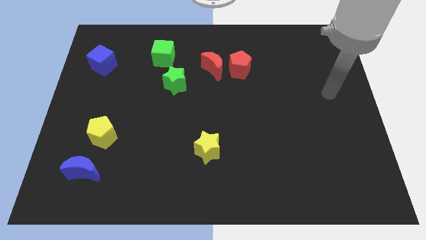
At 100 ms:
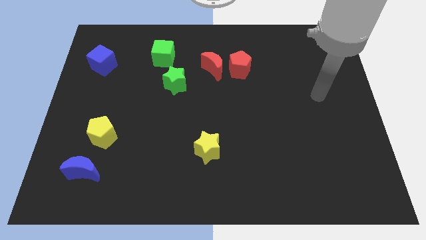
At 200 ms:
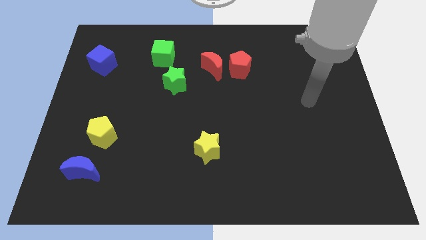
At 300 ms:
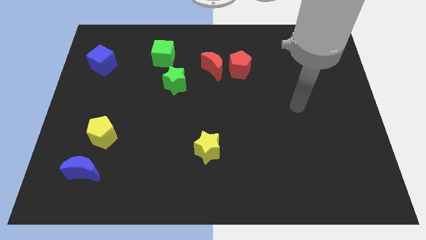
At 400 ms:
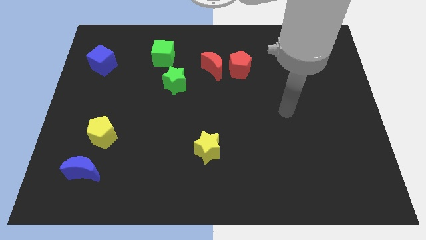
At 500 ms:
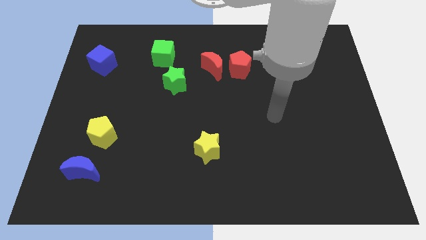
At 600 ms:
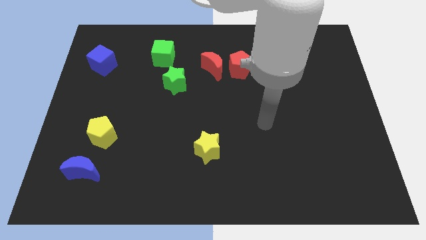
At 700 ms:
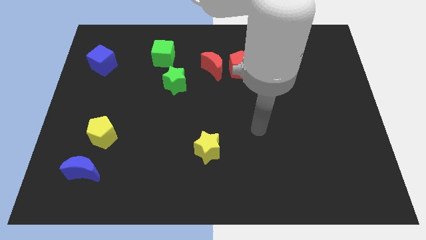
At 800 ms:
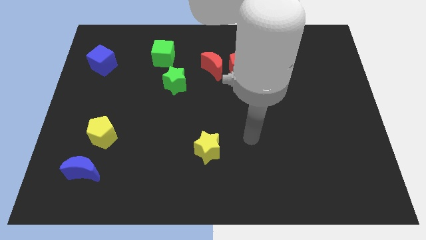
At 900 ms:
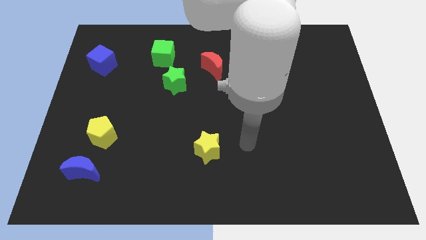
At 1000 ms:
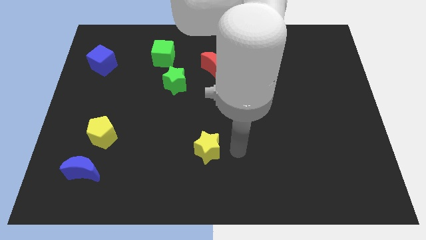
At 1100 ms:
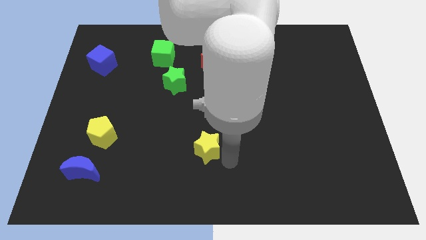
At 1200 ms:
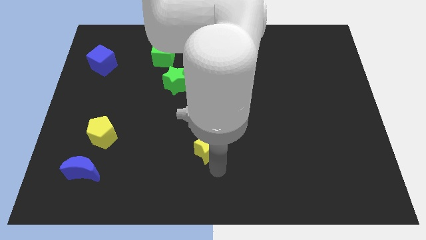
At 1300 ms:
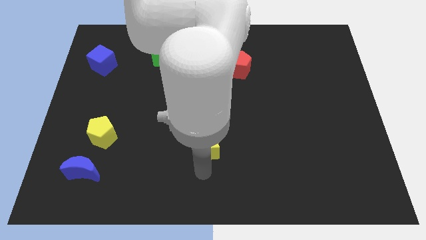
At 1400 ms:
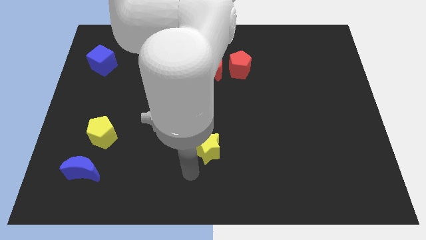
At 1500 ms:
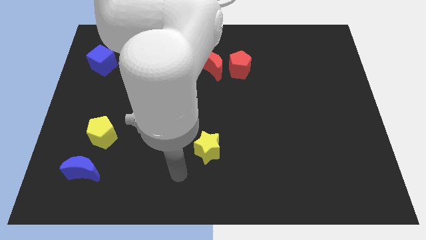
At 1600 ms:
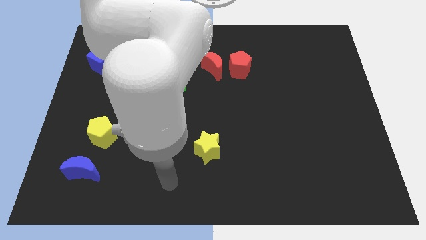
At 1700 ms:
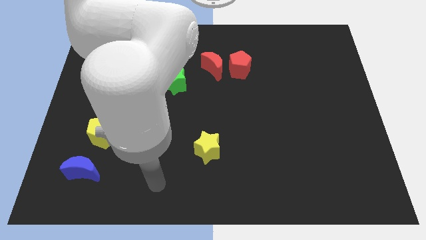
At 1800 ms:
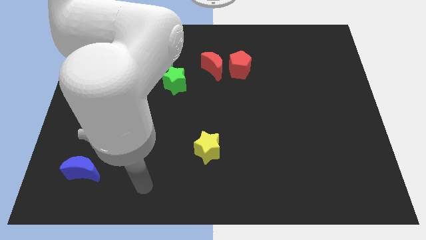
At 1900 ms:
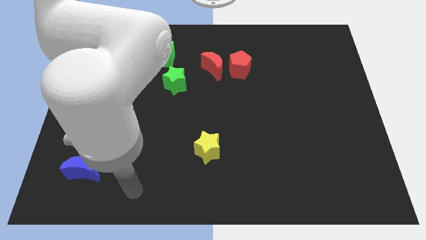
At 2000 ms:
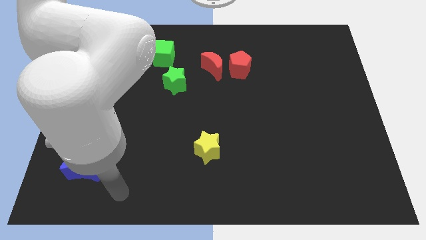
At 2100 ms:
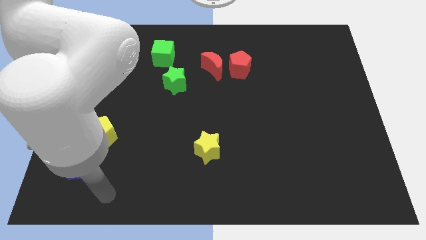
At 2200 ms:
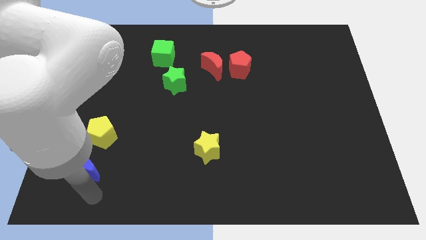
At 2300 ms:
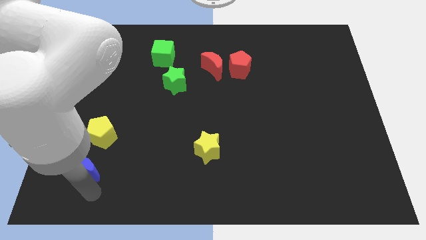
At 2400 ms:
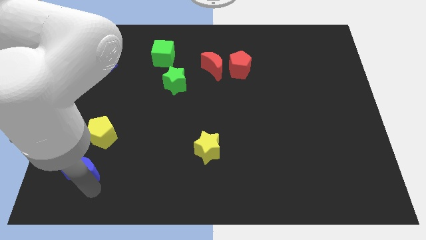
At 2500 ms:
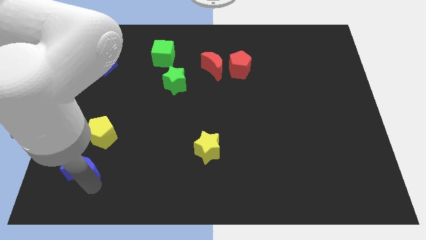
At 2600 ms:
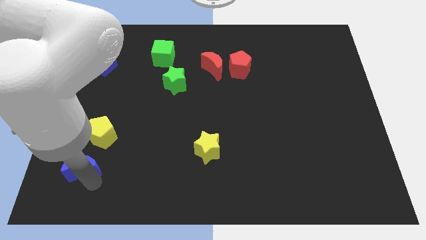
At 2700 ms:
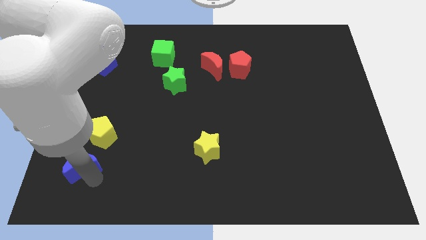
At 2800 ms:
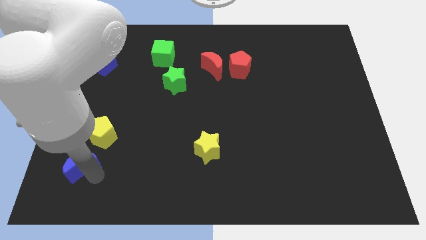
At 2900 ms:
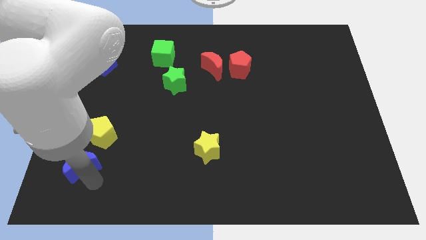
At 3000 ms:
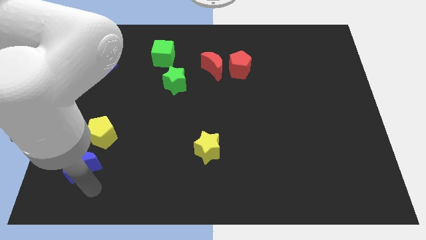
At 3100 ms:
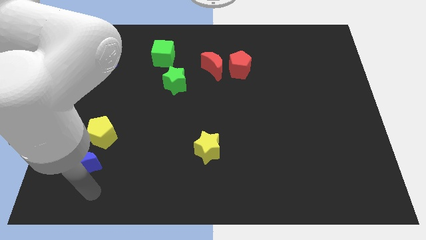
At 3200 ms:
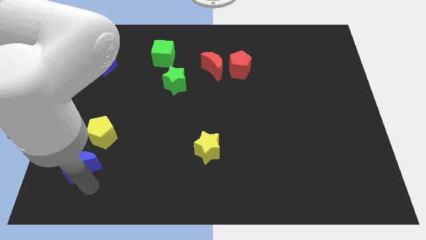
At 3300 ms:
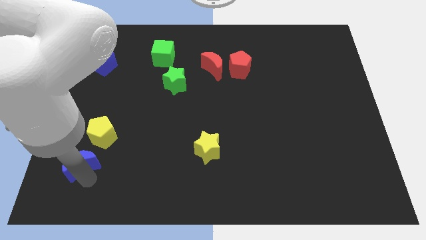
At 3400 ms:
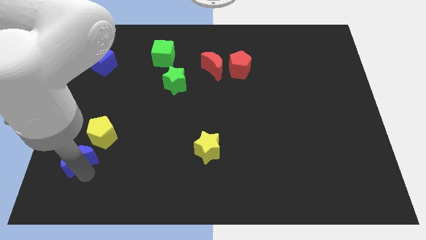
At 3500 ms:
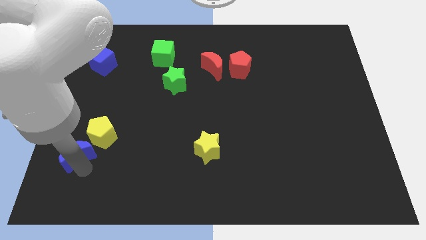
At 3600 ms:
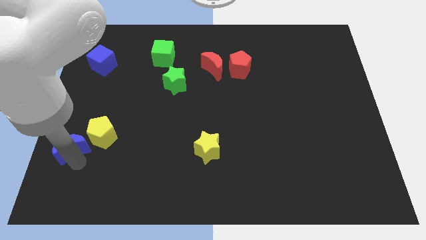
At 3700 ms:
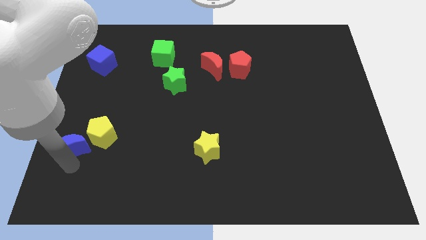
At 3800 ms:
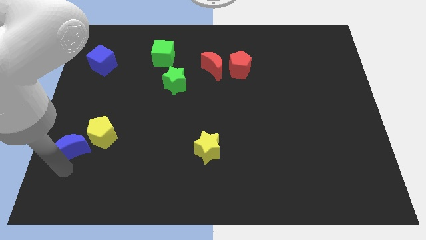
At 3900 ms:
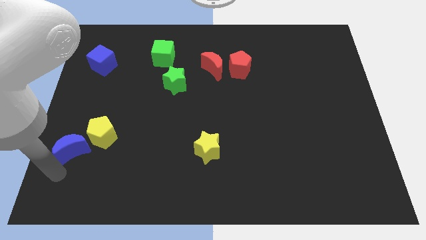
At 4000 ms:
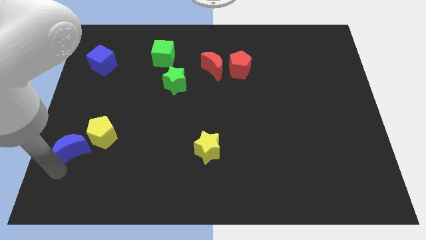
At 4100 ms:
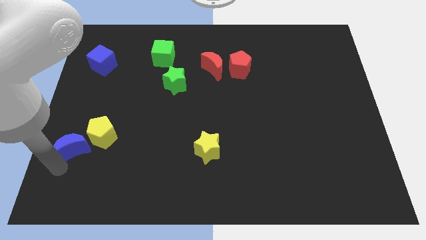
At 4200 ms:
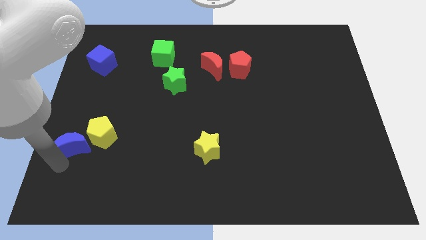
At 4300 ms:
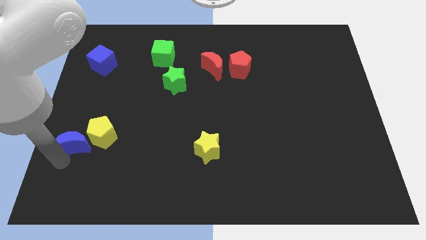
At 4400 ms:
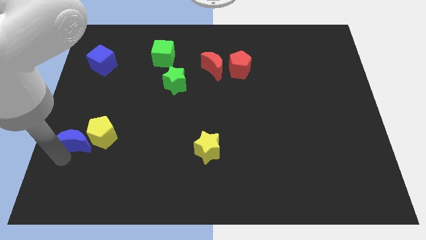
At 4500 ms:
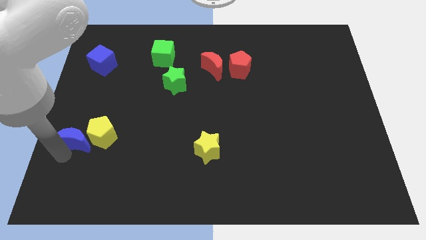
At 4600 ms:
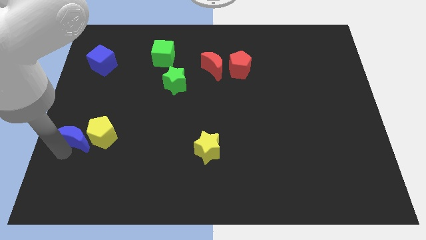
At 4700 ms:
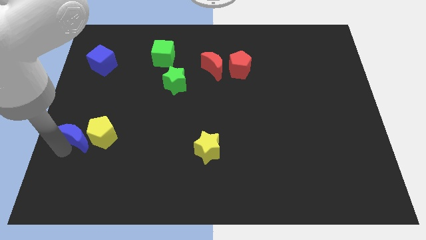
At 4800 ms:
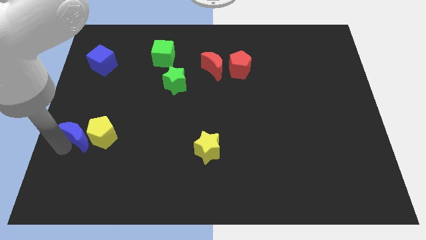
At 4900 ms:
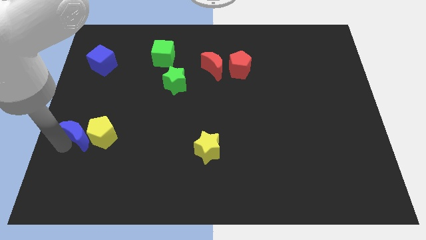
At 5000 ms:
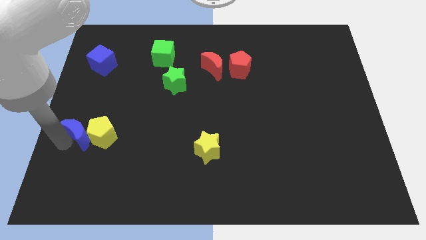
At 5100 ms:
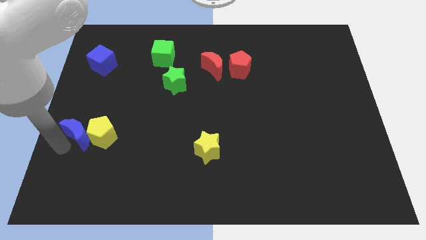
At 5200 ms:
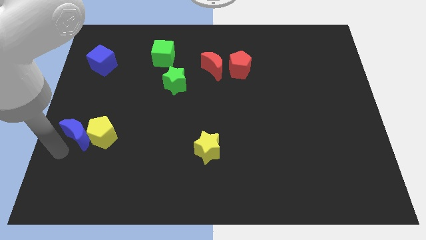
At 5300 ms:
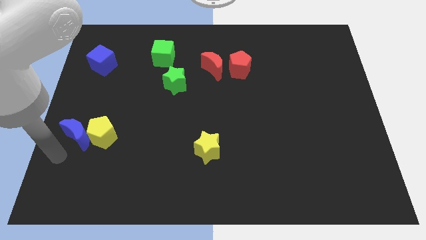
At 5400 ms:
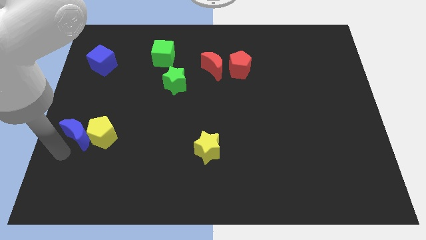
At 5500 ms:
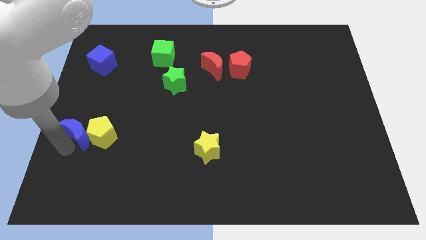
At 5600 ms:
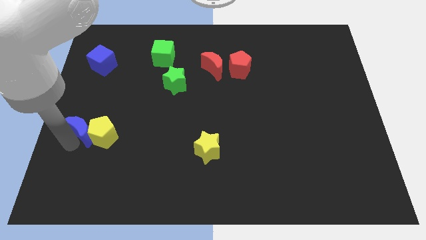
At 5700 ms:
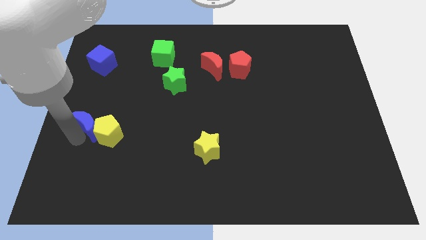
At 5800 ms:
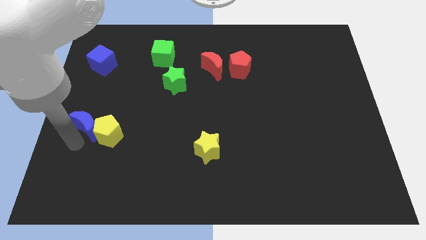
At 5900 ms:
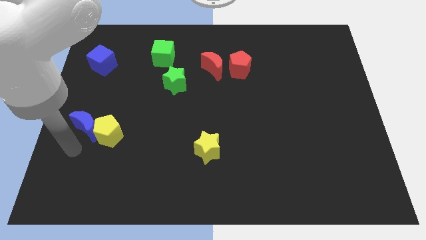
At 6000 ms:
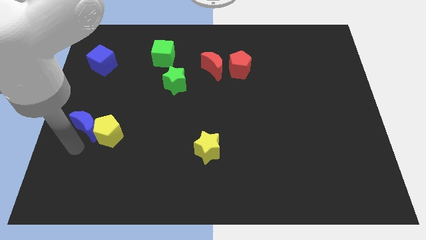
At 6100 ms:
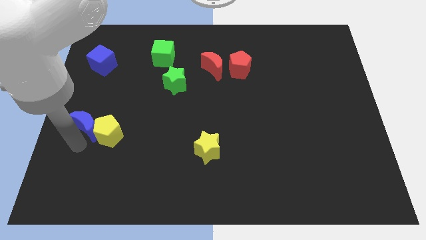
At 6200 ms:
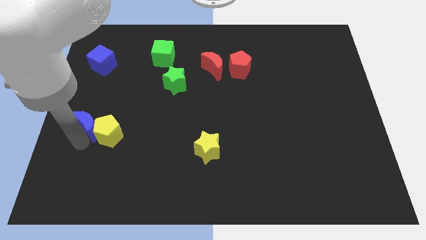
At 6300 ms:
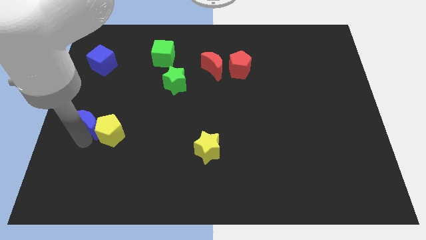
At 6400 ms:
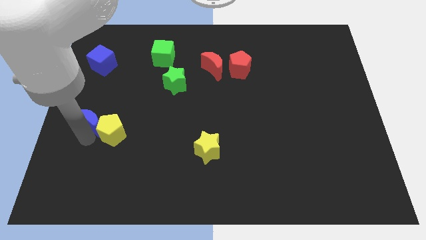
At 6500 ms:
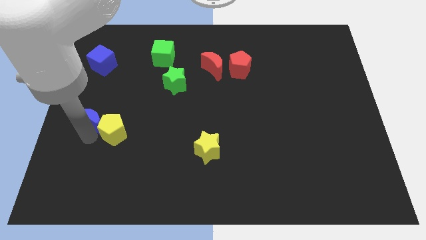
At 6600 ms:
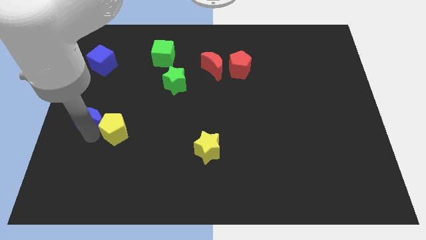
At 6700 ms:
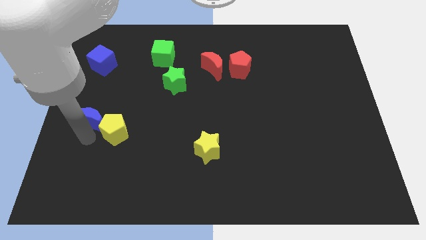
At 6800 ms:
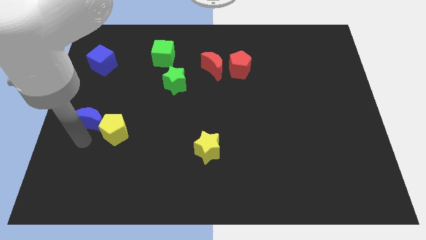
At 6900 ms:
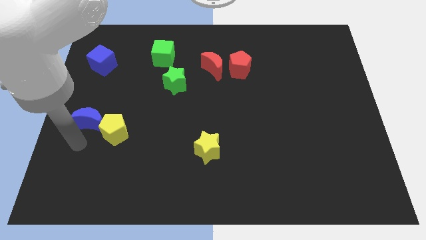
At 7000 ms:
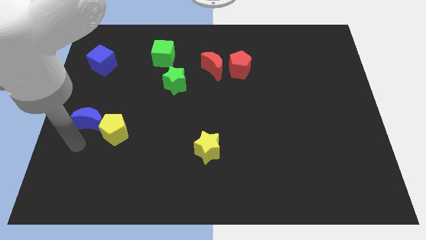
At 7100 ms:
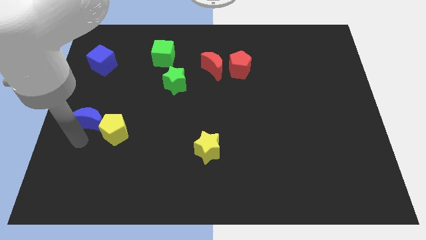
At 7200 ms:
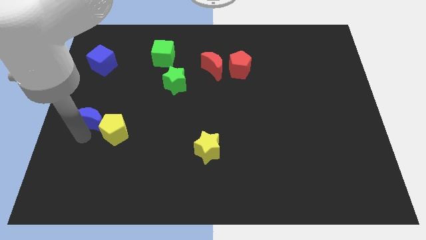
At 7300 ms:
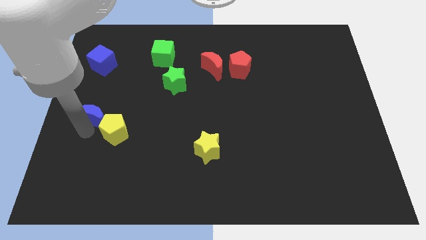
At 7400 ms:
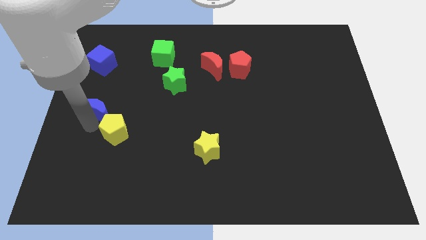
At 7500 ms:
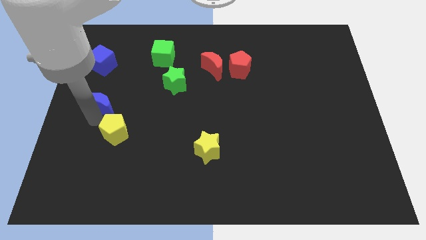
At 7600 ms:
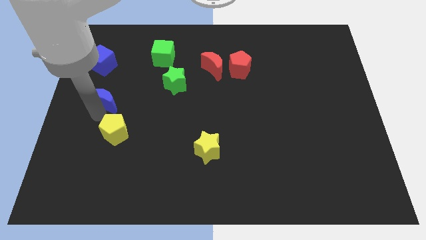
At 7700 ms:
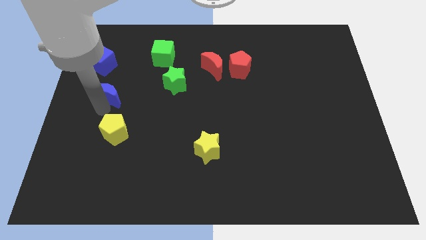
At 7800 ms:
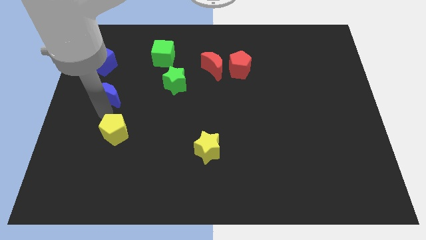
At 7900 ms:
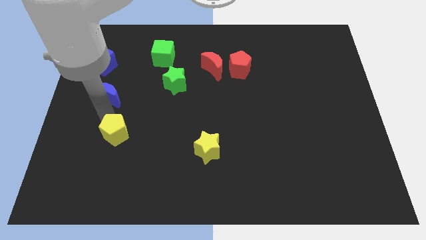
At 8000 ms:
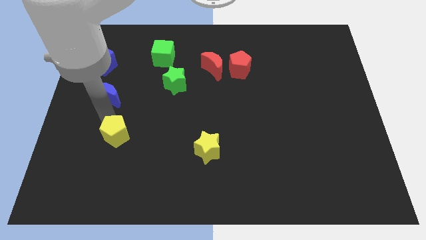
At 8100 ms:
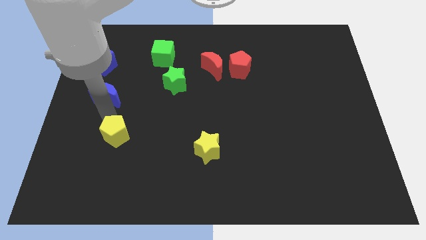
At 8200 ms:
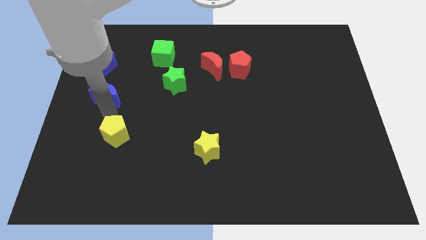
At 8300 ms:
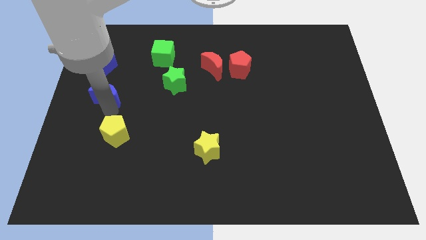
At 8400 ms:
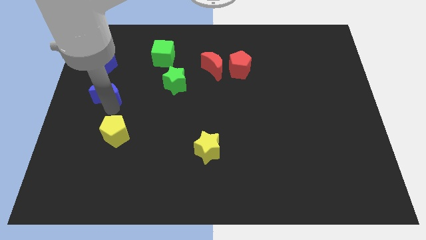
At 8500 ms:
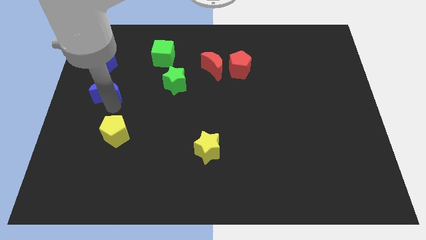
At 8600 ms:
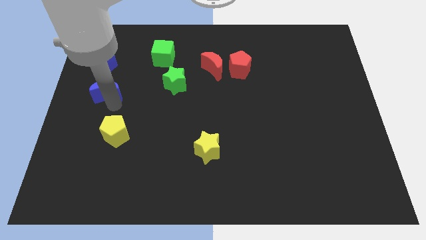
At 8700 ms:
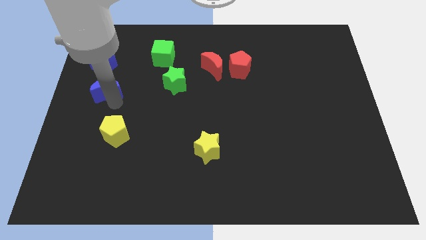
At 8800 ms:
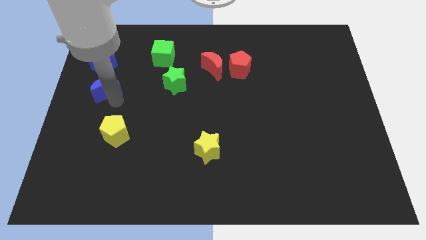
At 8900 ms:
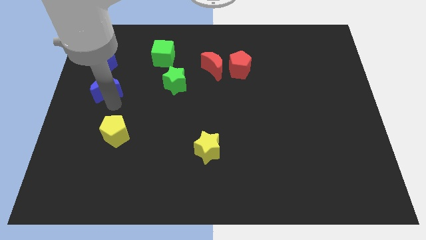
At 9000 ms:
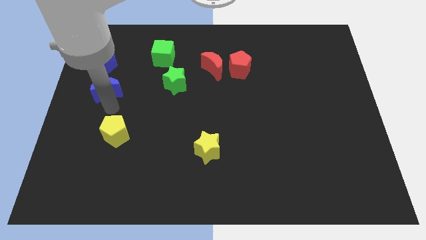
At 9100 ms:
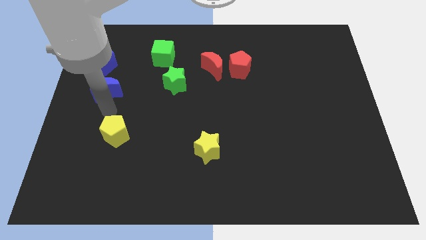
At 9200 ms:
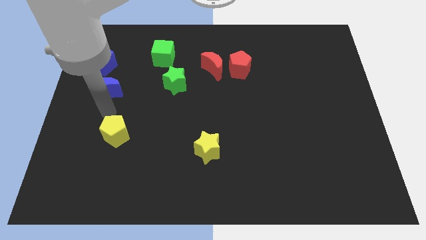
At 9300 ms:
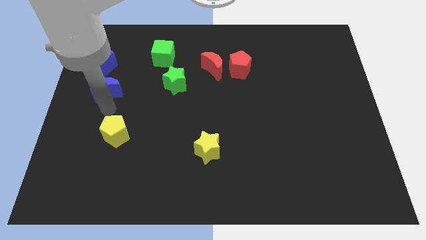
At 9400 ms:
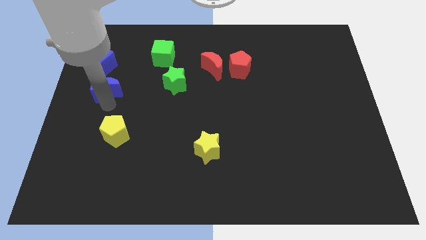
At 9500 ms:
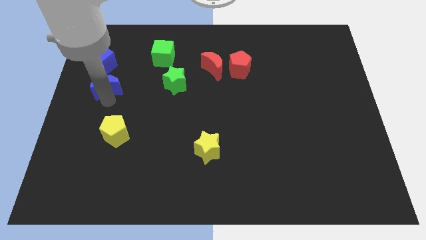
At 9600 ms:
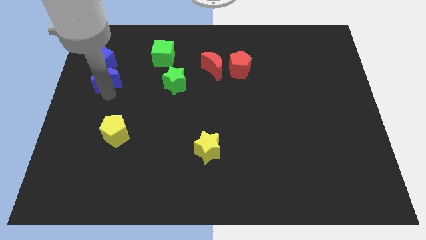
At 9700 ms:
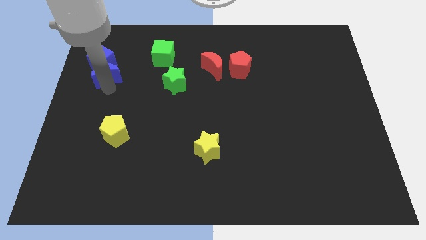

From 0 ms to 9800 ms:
slide the blue moon next to the blue cube
